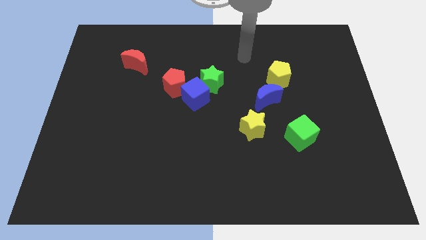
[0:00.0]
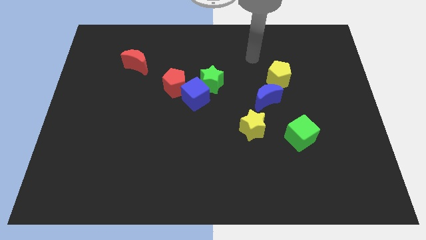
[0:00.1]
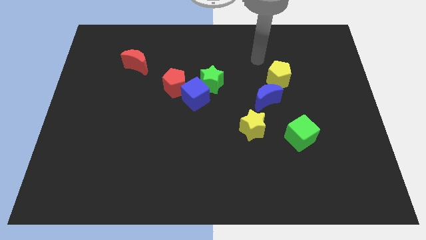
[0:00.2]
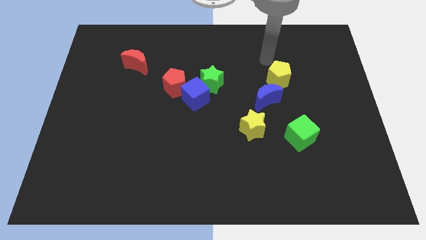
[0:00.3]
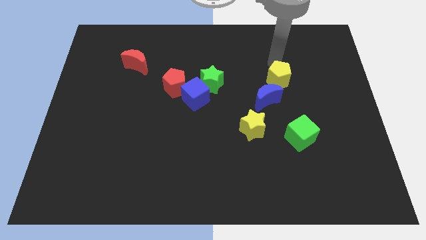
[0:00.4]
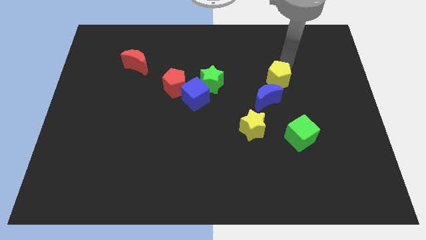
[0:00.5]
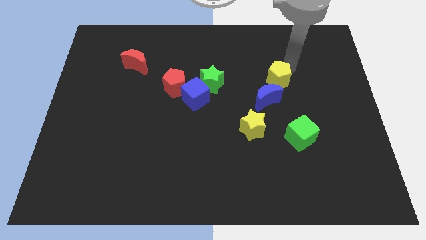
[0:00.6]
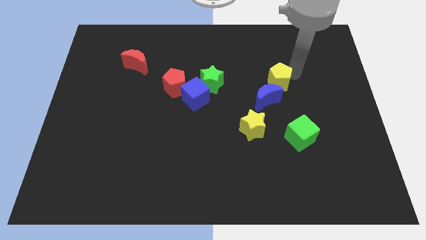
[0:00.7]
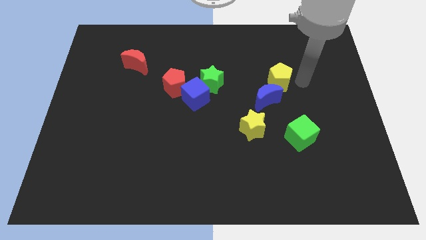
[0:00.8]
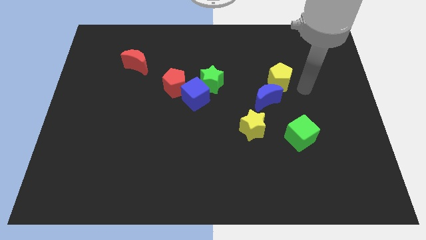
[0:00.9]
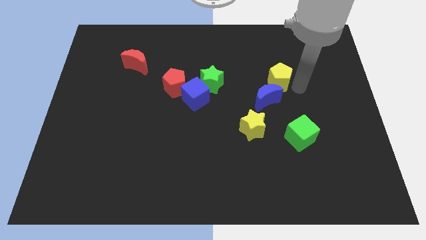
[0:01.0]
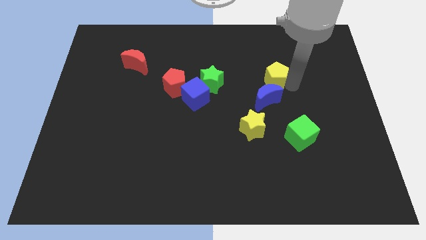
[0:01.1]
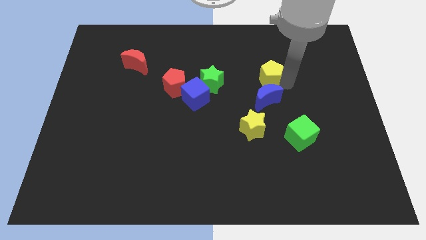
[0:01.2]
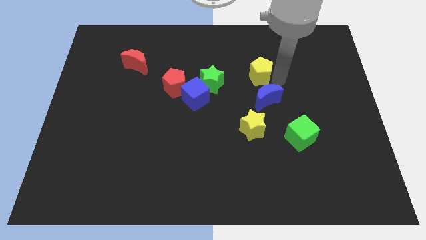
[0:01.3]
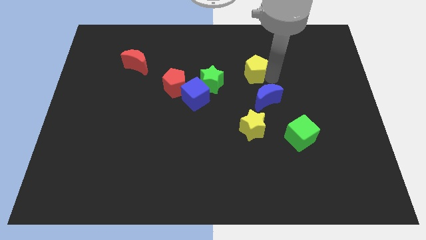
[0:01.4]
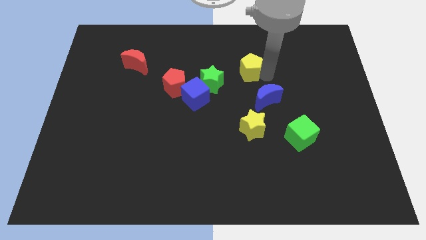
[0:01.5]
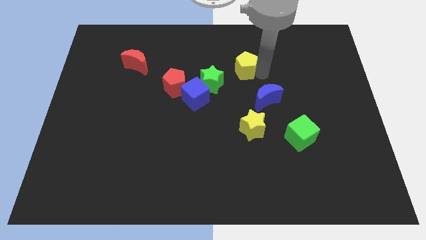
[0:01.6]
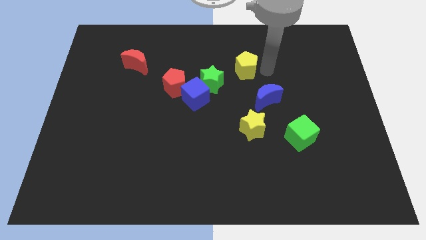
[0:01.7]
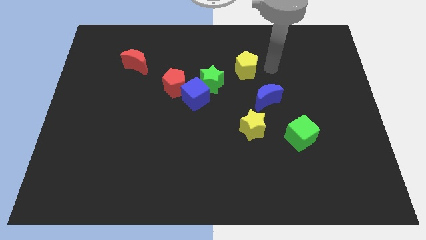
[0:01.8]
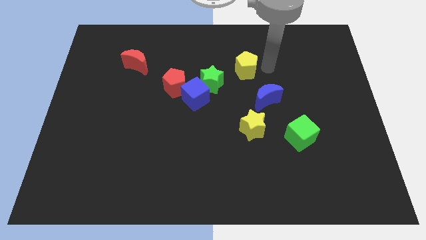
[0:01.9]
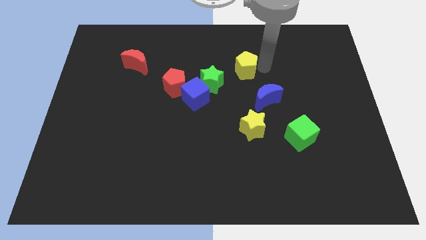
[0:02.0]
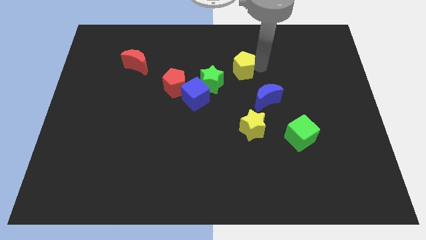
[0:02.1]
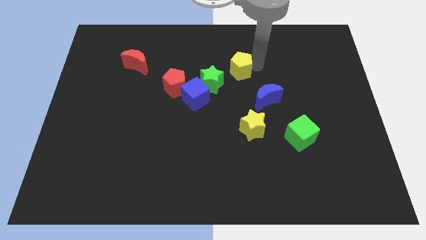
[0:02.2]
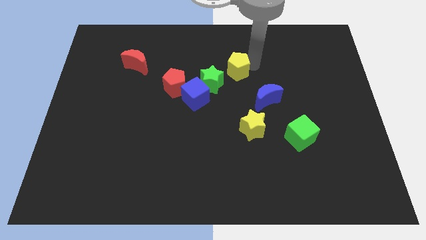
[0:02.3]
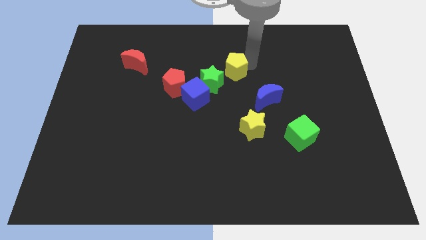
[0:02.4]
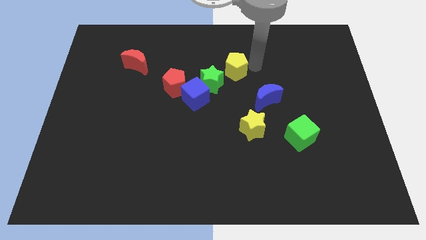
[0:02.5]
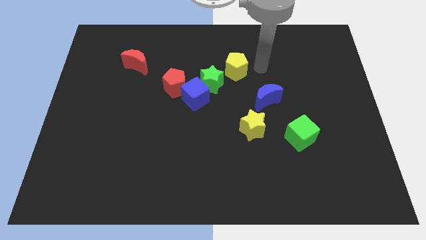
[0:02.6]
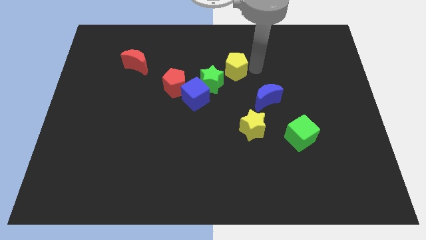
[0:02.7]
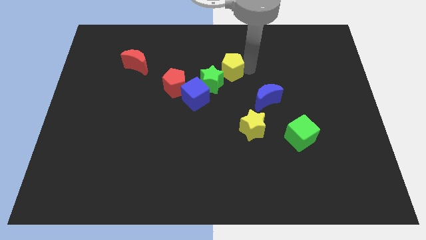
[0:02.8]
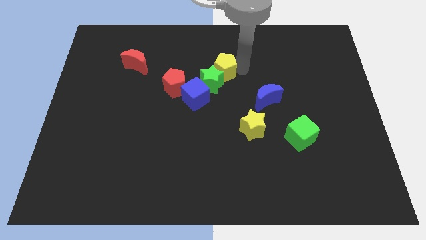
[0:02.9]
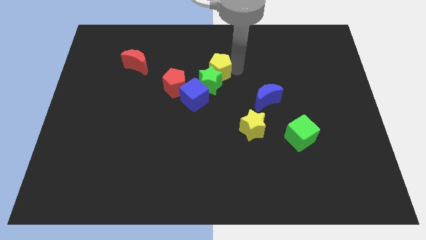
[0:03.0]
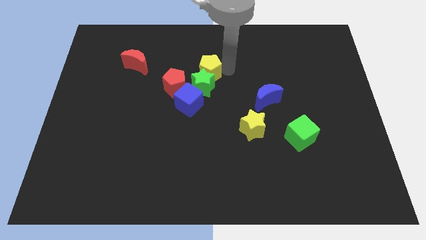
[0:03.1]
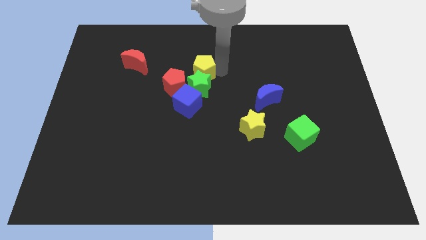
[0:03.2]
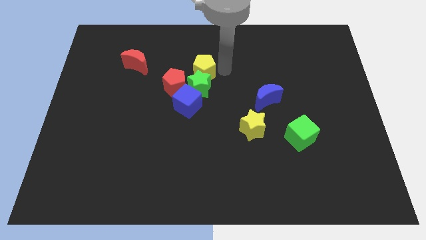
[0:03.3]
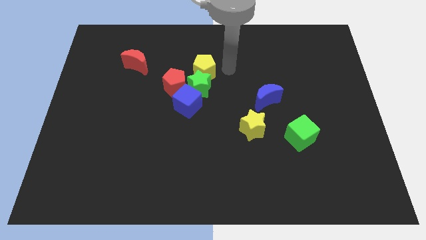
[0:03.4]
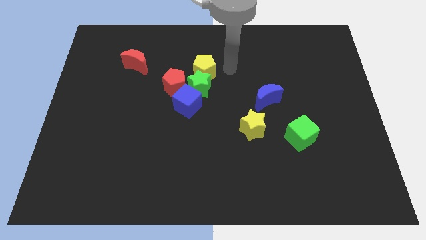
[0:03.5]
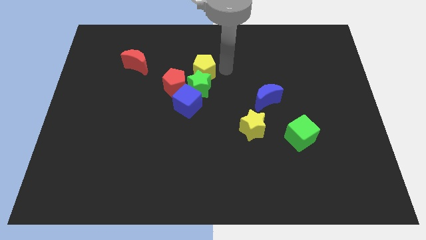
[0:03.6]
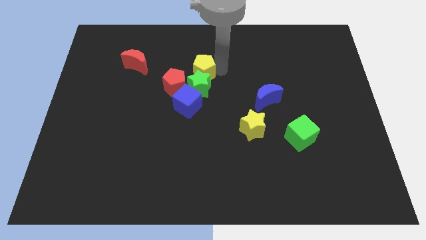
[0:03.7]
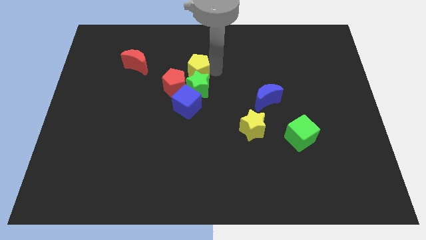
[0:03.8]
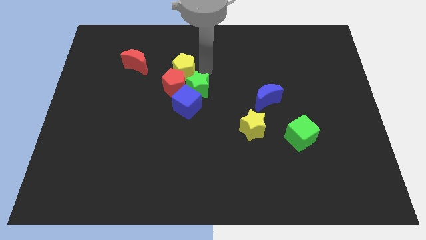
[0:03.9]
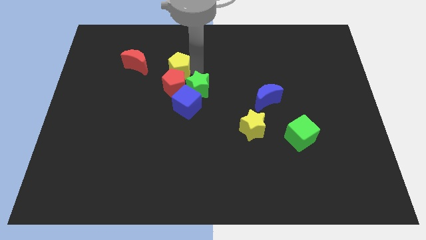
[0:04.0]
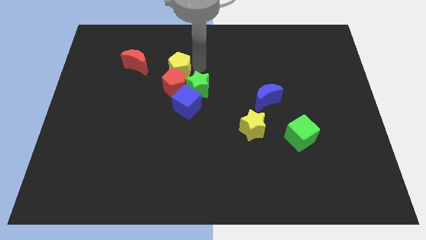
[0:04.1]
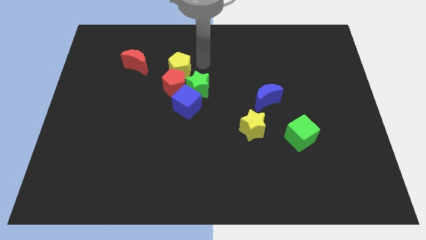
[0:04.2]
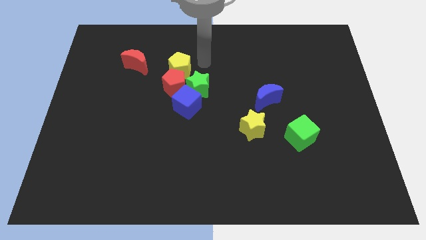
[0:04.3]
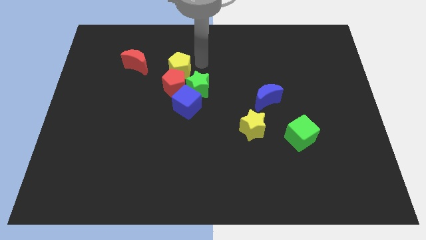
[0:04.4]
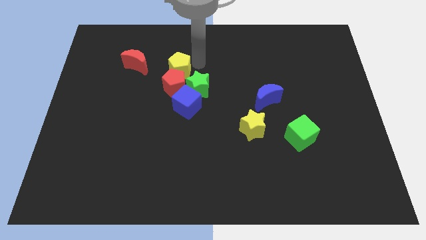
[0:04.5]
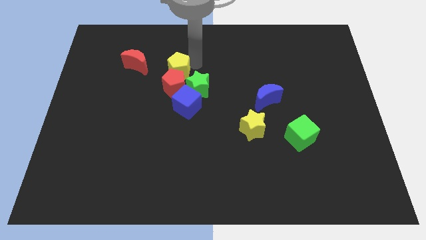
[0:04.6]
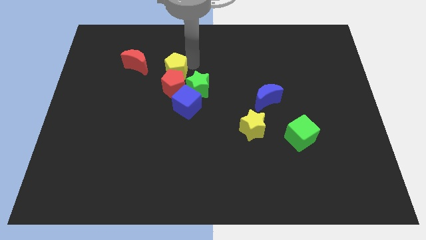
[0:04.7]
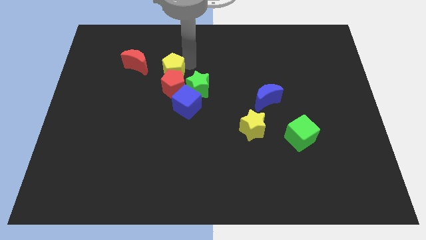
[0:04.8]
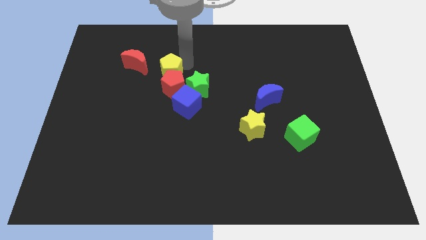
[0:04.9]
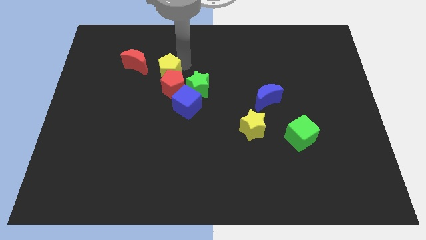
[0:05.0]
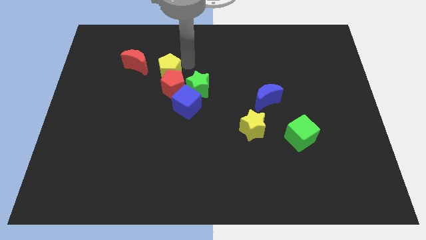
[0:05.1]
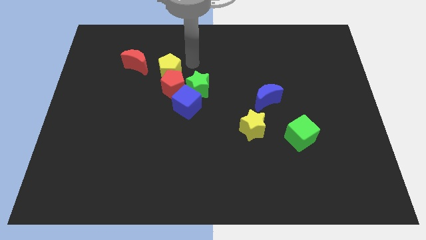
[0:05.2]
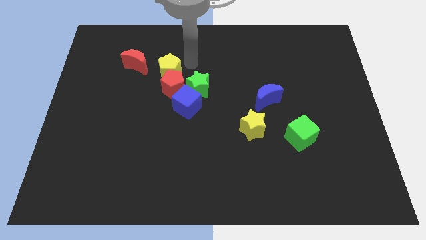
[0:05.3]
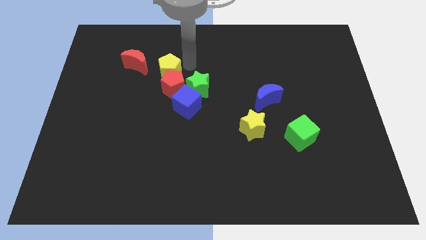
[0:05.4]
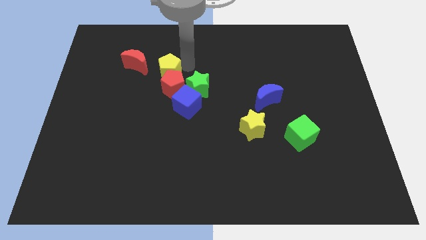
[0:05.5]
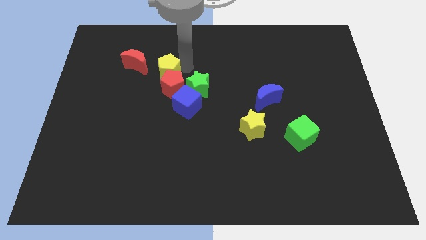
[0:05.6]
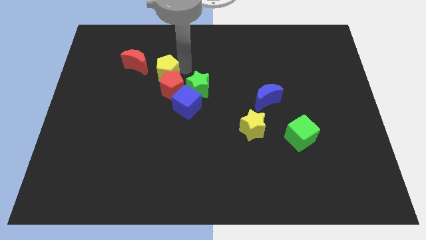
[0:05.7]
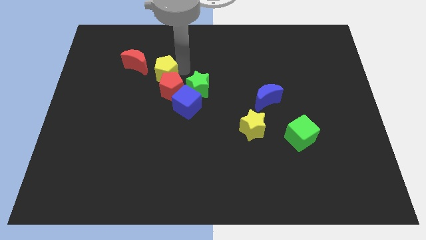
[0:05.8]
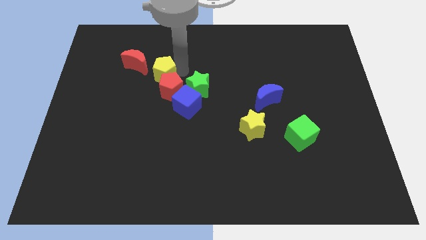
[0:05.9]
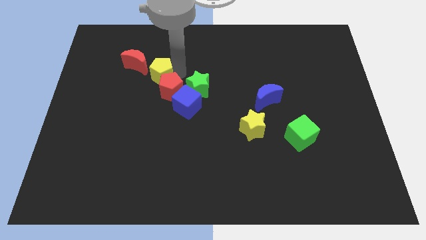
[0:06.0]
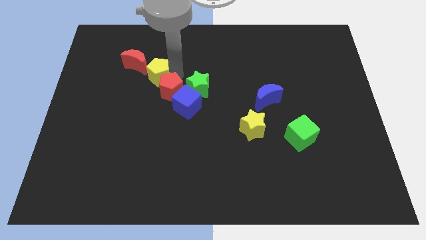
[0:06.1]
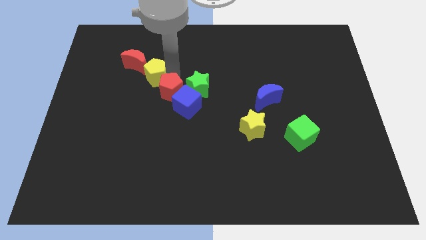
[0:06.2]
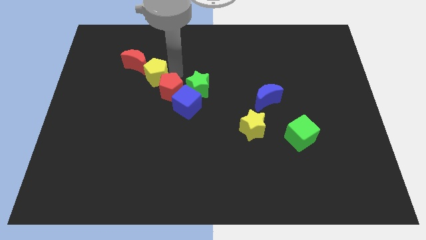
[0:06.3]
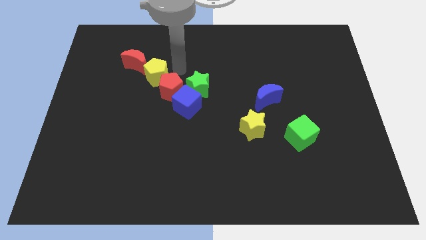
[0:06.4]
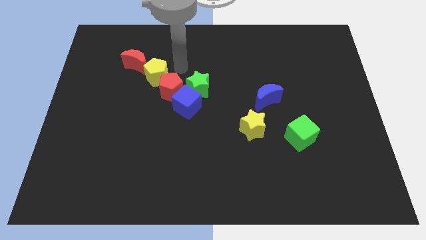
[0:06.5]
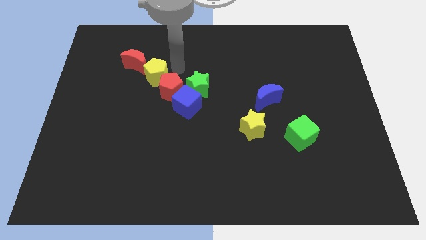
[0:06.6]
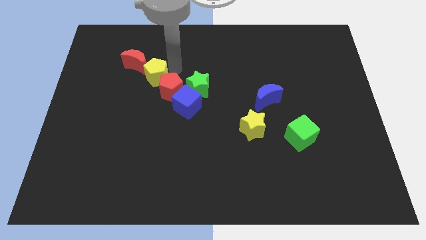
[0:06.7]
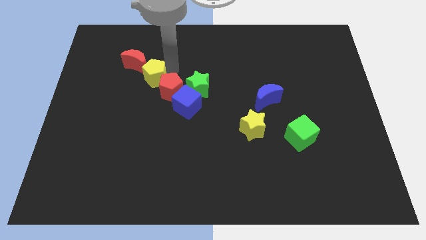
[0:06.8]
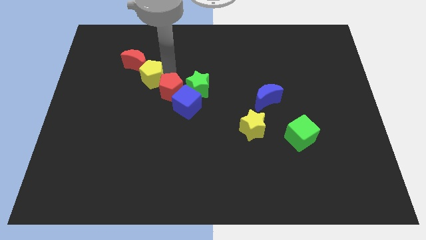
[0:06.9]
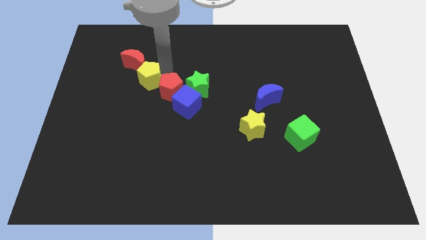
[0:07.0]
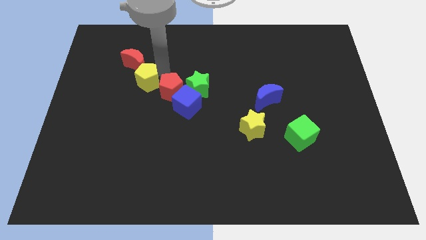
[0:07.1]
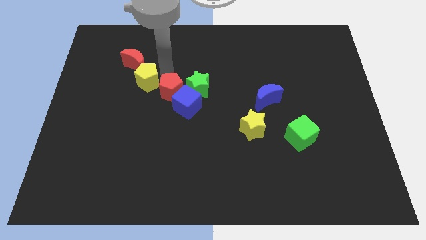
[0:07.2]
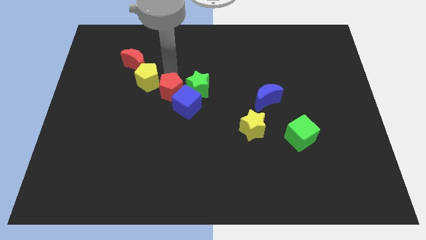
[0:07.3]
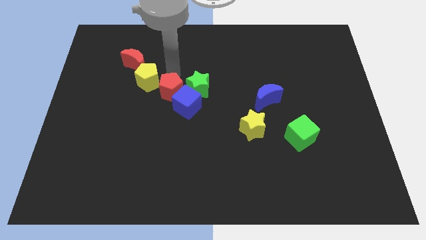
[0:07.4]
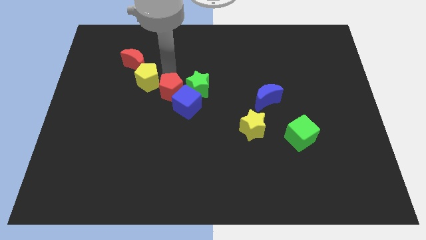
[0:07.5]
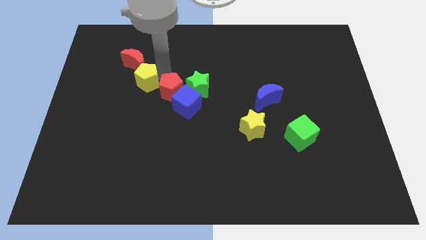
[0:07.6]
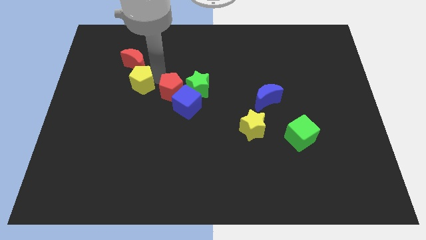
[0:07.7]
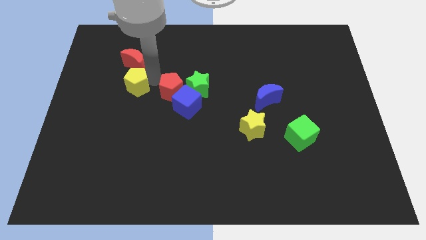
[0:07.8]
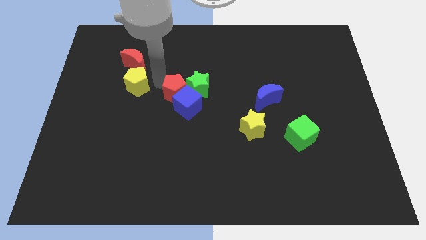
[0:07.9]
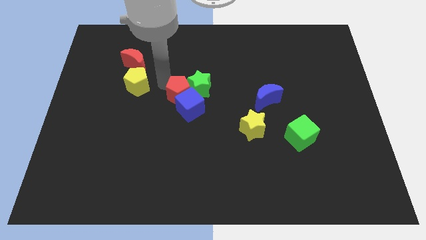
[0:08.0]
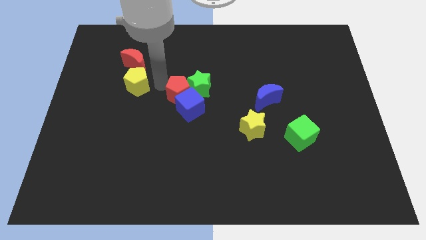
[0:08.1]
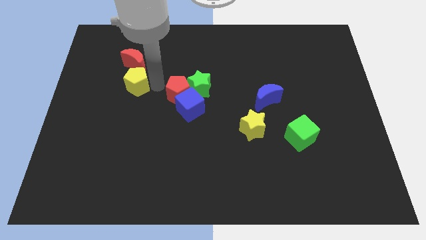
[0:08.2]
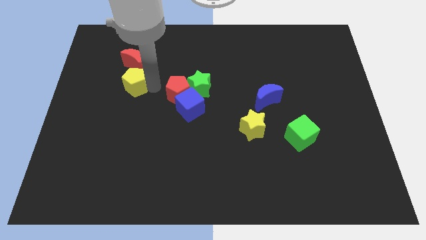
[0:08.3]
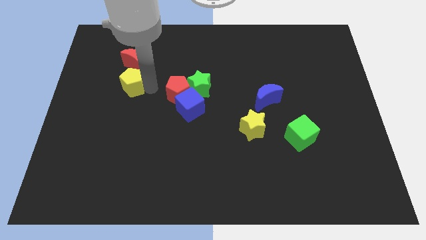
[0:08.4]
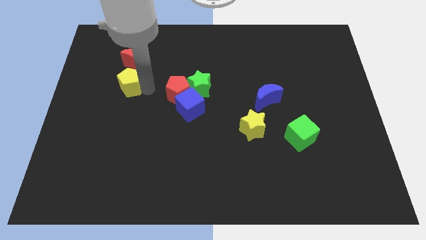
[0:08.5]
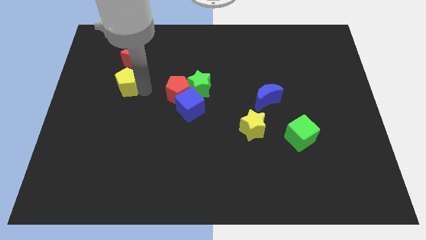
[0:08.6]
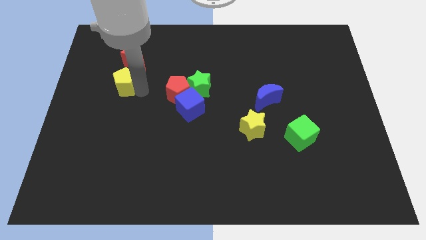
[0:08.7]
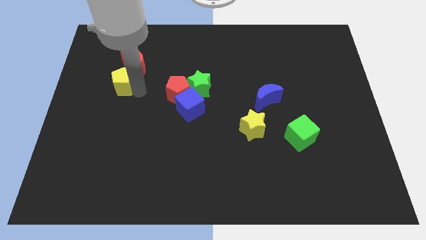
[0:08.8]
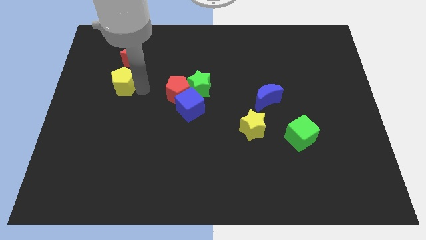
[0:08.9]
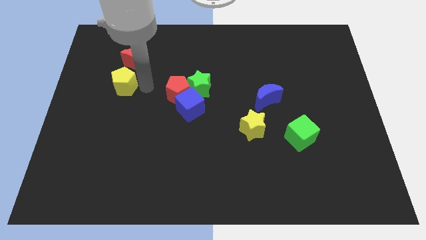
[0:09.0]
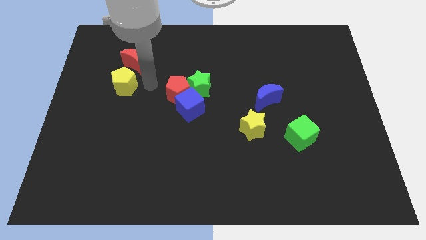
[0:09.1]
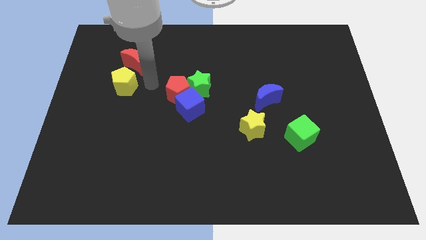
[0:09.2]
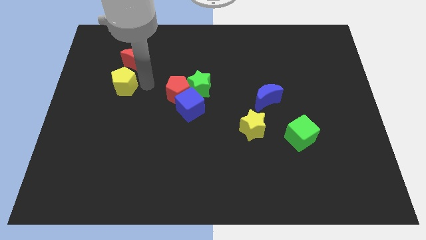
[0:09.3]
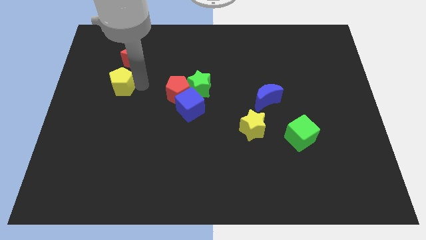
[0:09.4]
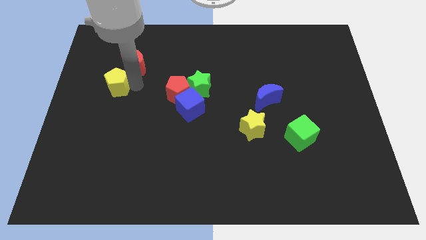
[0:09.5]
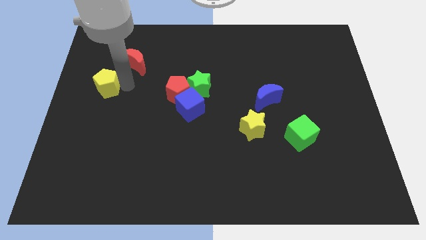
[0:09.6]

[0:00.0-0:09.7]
put the yellow pentagon to the left side
